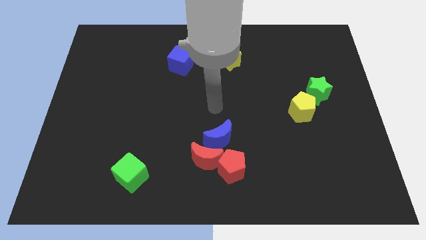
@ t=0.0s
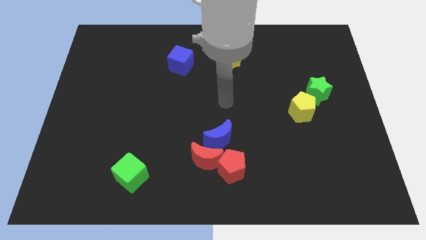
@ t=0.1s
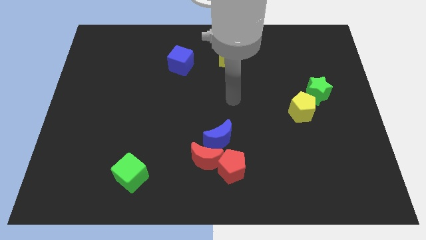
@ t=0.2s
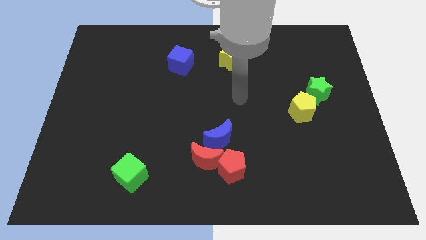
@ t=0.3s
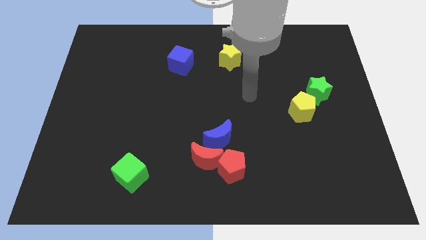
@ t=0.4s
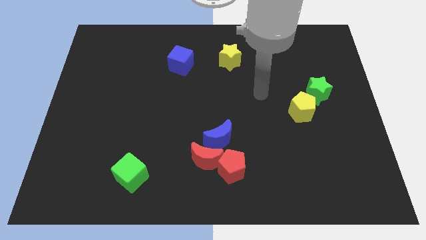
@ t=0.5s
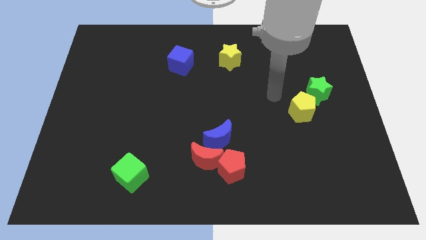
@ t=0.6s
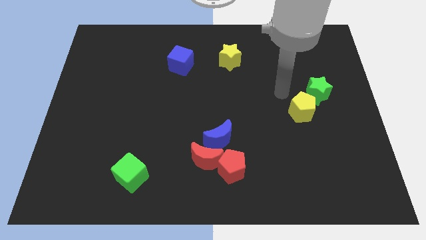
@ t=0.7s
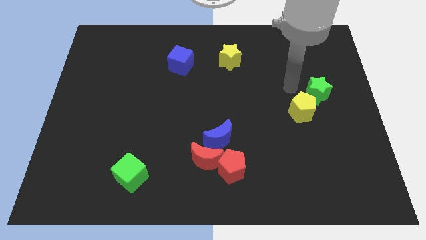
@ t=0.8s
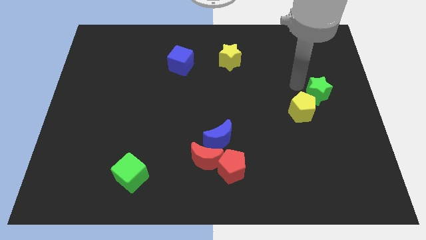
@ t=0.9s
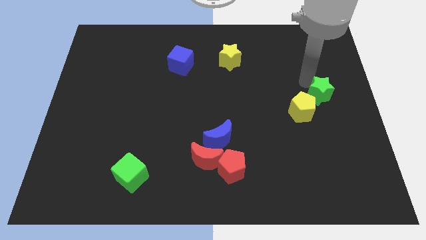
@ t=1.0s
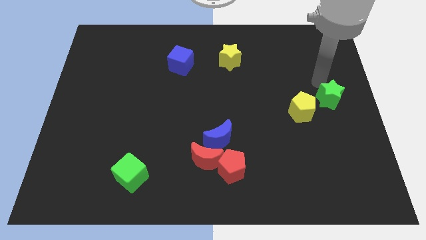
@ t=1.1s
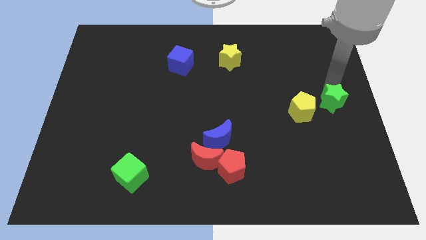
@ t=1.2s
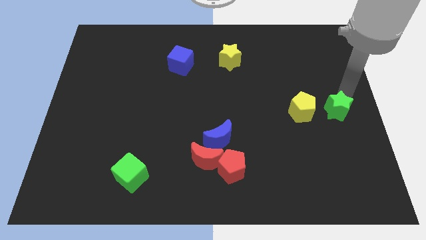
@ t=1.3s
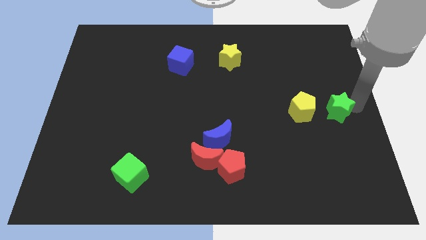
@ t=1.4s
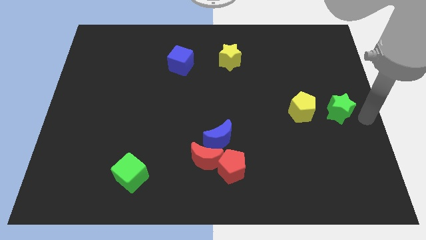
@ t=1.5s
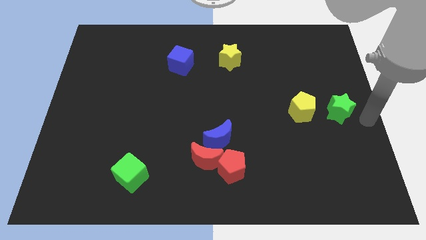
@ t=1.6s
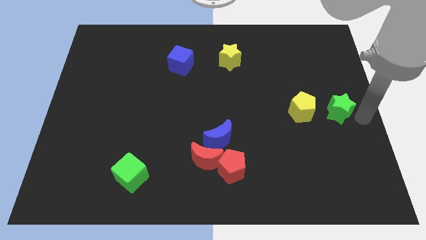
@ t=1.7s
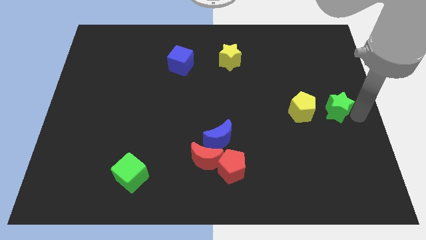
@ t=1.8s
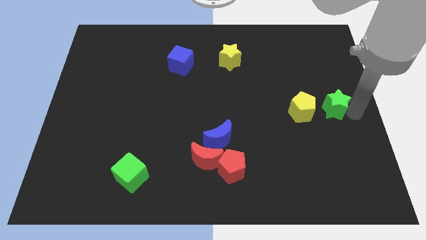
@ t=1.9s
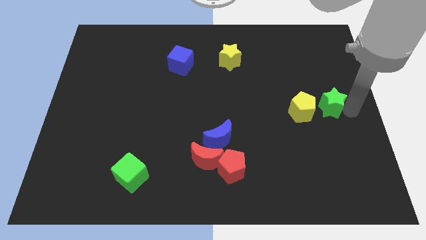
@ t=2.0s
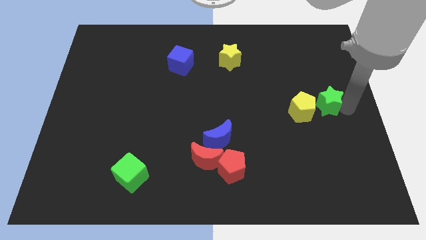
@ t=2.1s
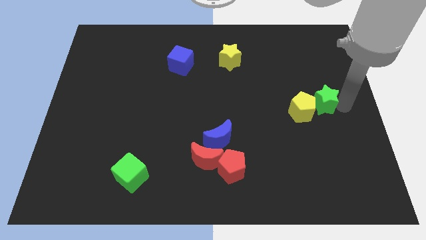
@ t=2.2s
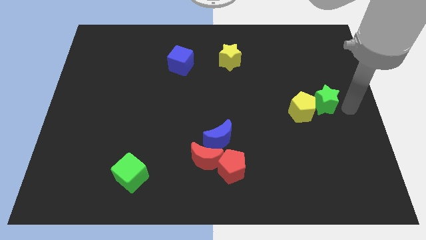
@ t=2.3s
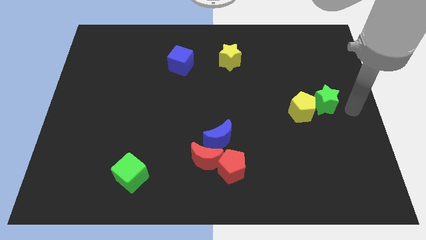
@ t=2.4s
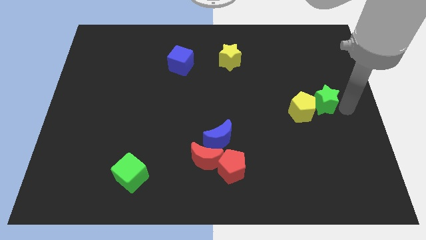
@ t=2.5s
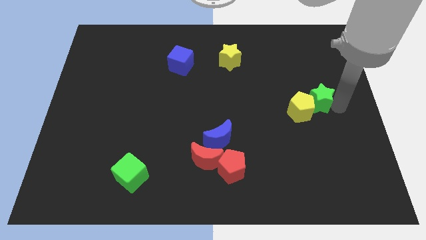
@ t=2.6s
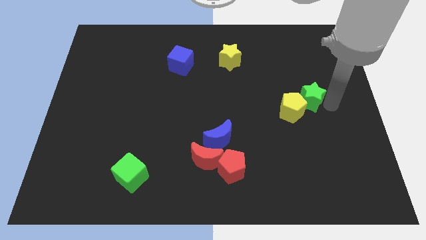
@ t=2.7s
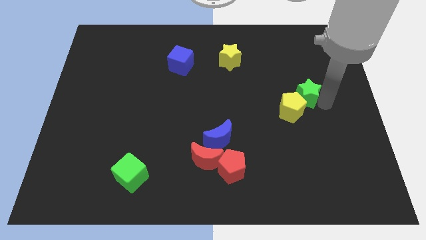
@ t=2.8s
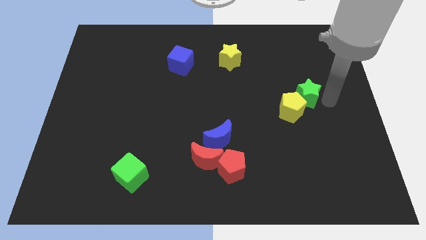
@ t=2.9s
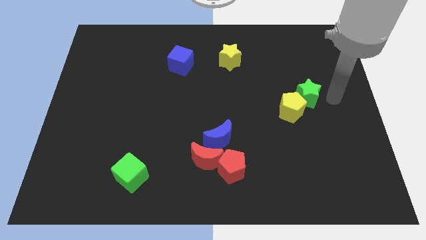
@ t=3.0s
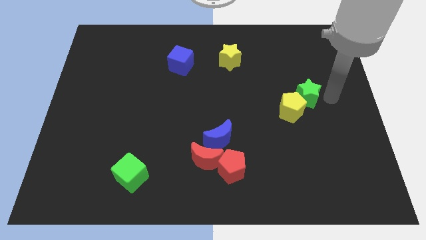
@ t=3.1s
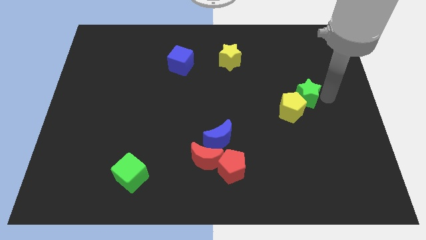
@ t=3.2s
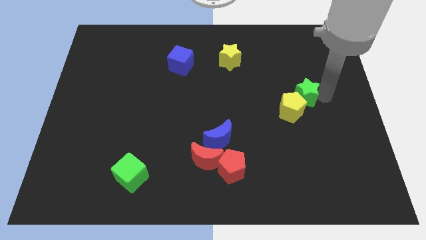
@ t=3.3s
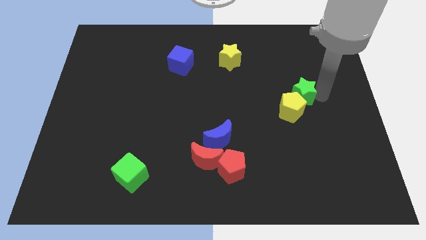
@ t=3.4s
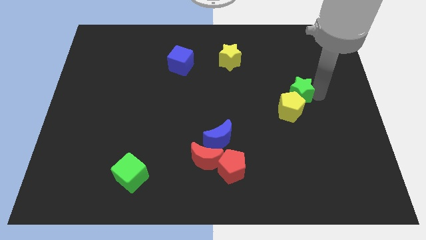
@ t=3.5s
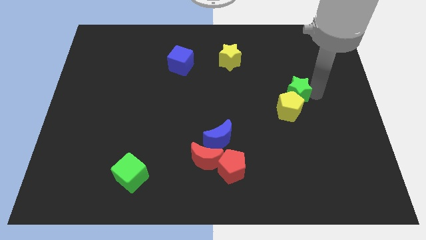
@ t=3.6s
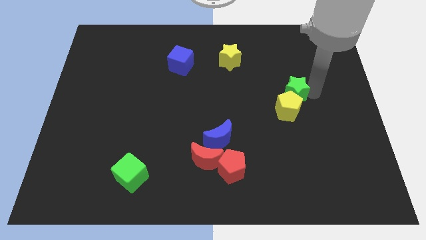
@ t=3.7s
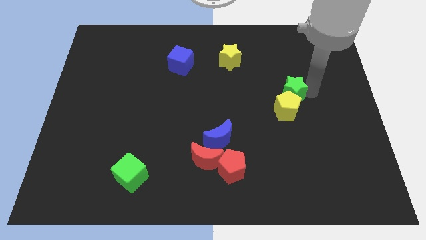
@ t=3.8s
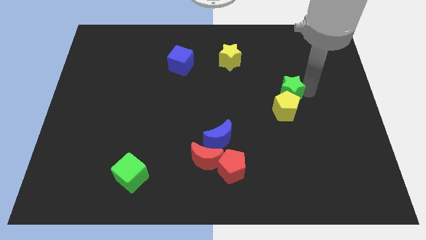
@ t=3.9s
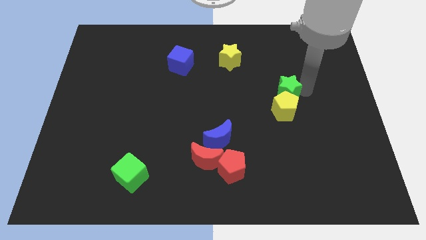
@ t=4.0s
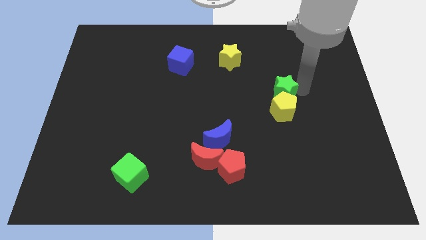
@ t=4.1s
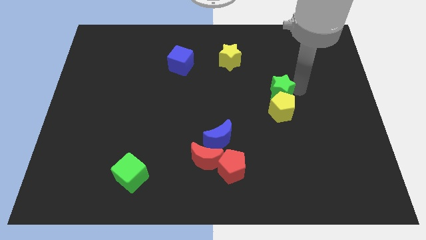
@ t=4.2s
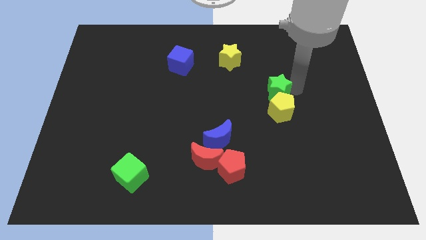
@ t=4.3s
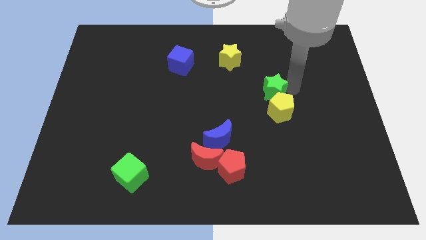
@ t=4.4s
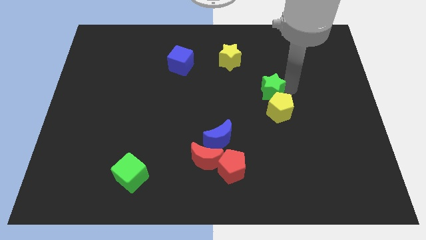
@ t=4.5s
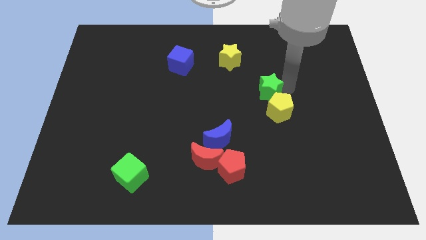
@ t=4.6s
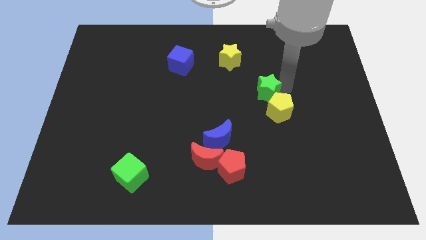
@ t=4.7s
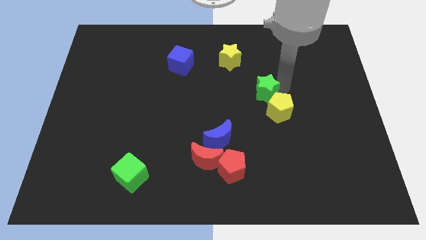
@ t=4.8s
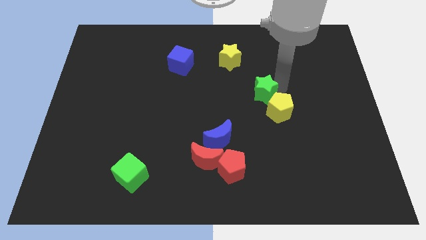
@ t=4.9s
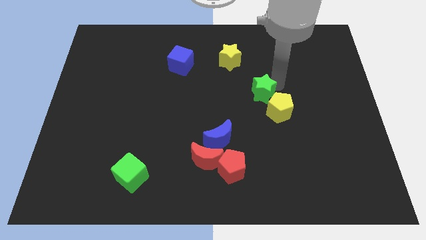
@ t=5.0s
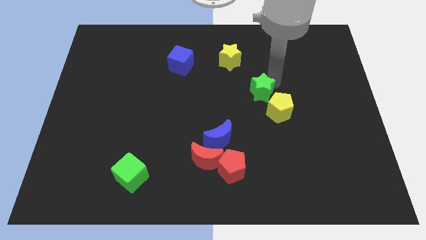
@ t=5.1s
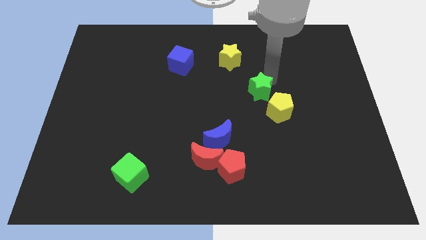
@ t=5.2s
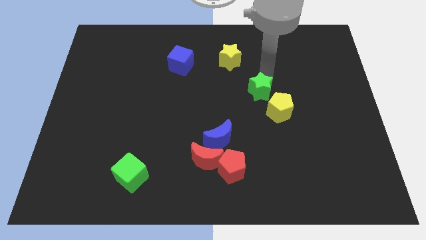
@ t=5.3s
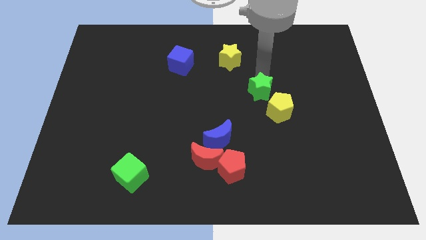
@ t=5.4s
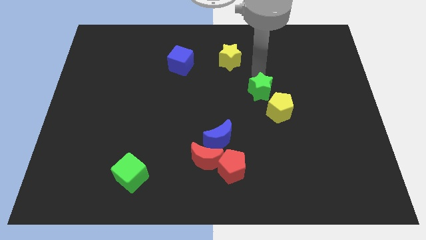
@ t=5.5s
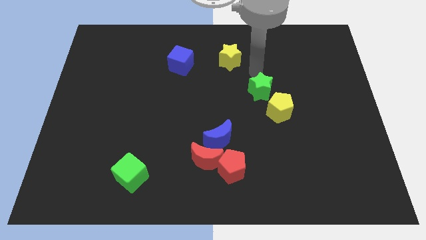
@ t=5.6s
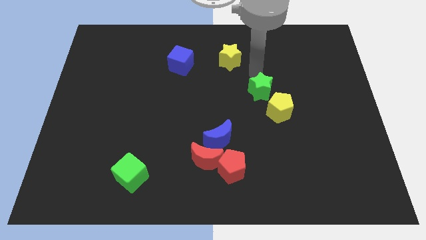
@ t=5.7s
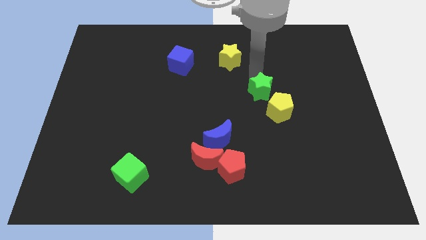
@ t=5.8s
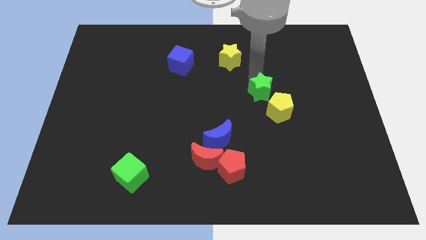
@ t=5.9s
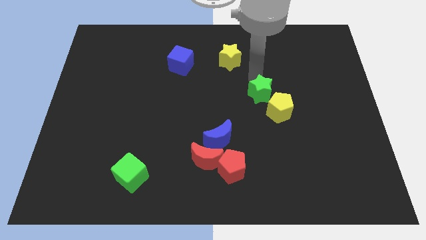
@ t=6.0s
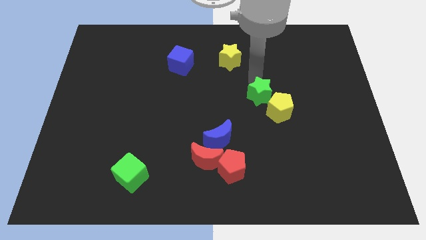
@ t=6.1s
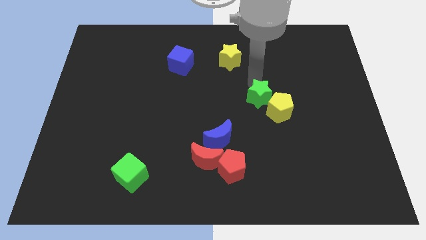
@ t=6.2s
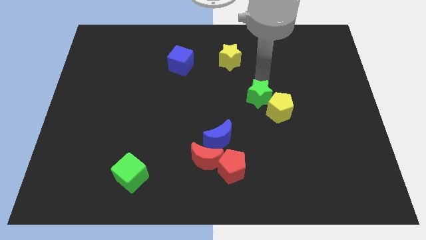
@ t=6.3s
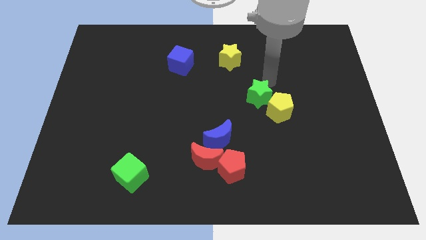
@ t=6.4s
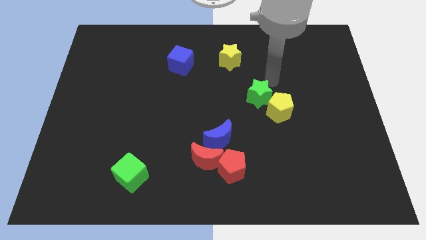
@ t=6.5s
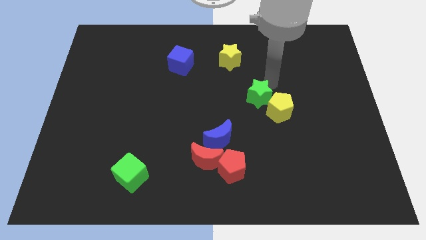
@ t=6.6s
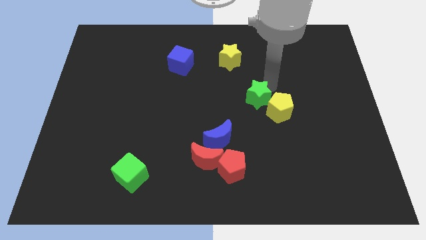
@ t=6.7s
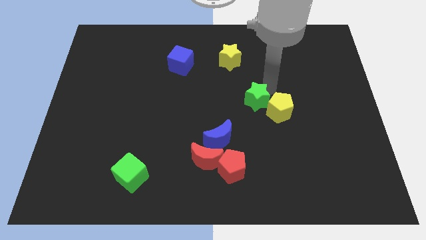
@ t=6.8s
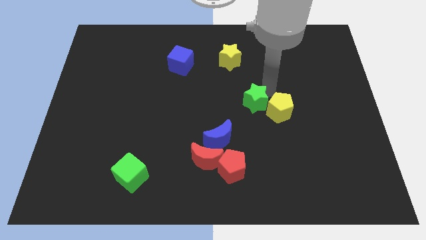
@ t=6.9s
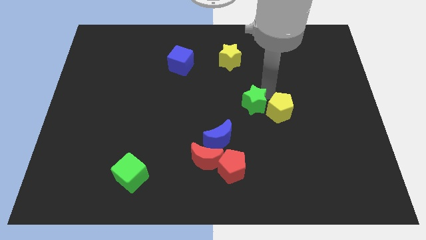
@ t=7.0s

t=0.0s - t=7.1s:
slide the green star diagonally up and to the right of the blue moon
